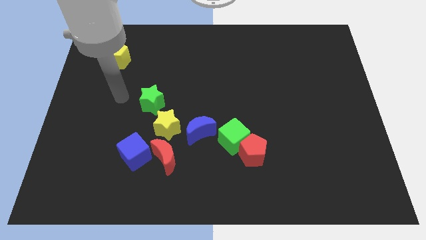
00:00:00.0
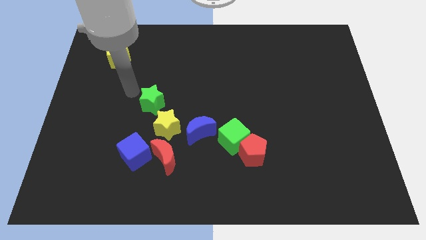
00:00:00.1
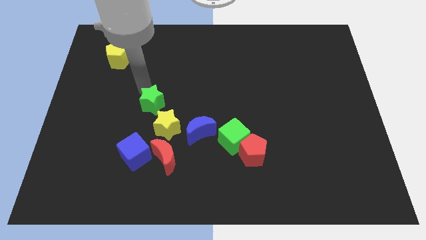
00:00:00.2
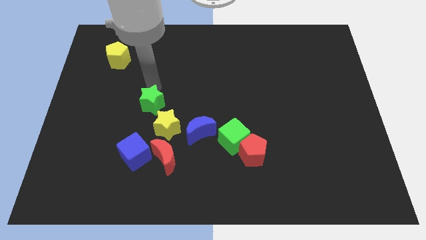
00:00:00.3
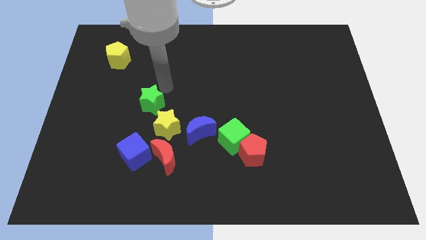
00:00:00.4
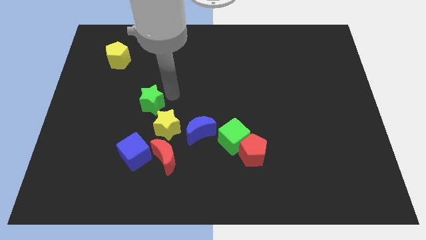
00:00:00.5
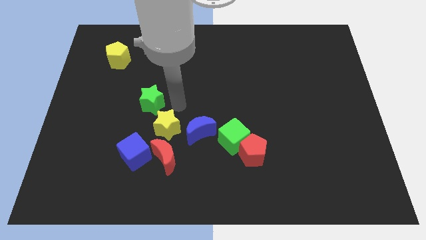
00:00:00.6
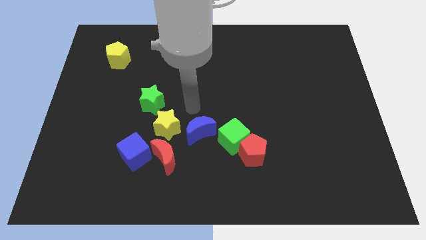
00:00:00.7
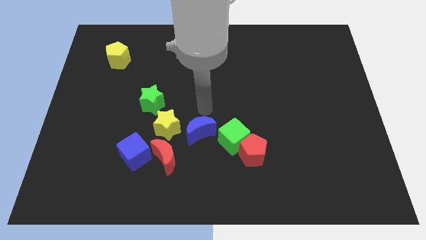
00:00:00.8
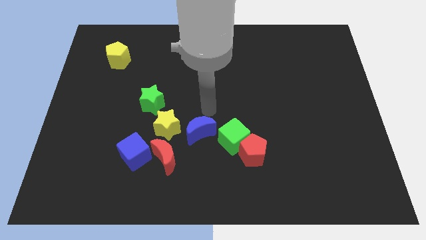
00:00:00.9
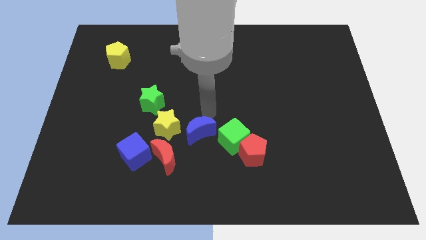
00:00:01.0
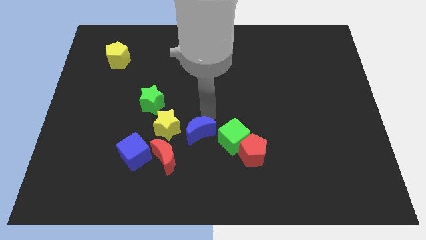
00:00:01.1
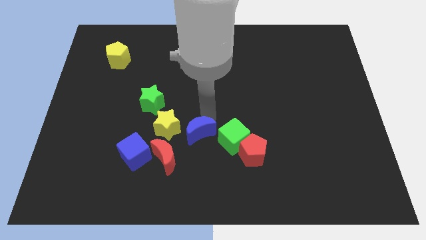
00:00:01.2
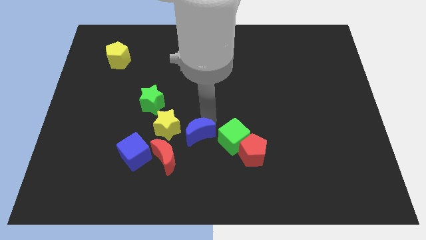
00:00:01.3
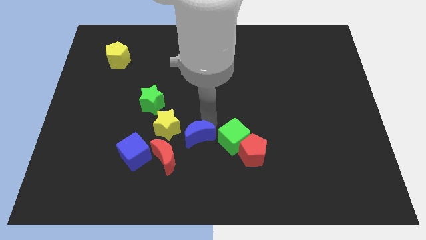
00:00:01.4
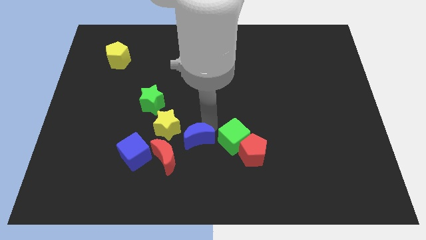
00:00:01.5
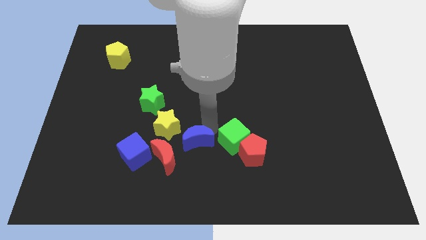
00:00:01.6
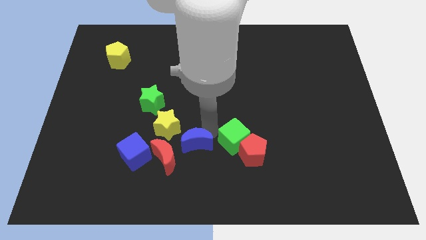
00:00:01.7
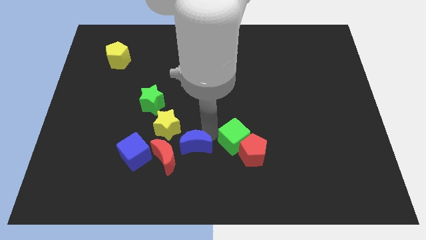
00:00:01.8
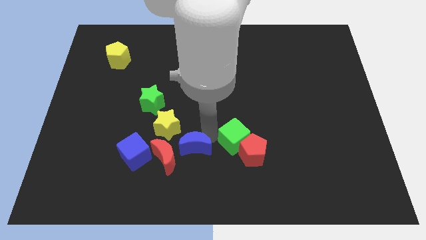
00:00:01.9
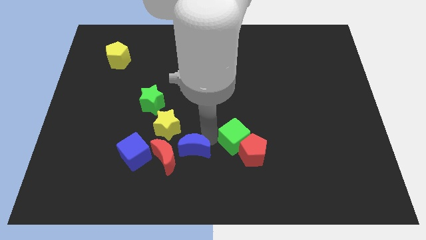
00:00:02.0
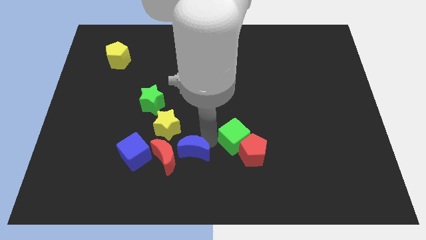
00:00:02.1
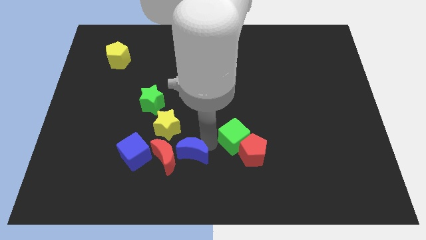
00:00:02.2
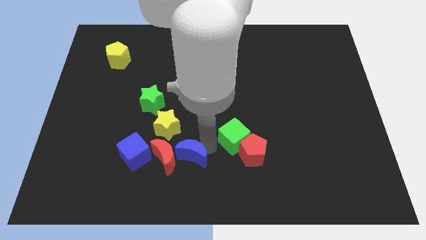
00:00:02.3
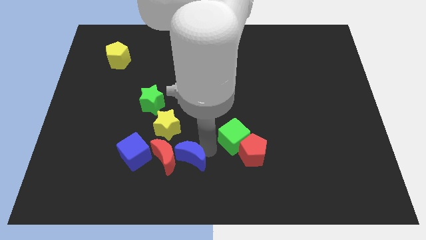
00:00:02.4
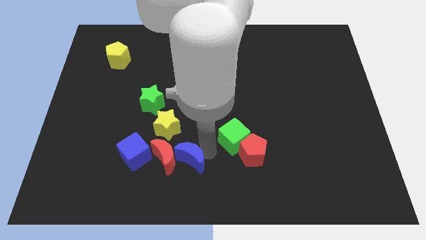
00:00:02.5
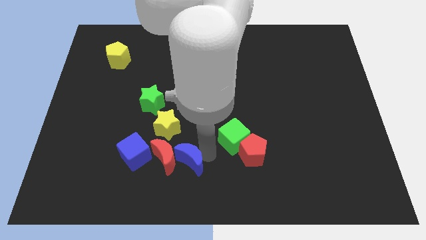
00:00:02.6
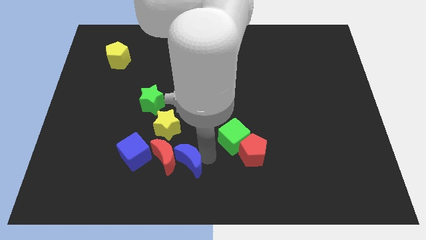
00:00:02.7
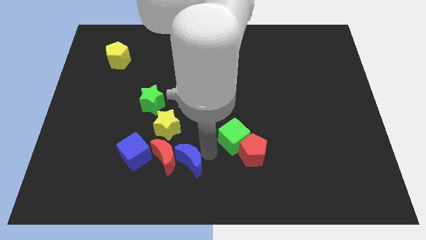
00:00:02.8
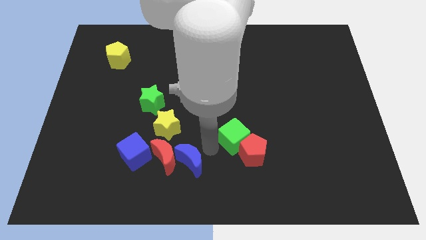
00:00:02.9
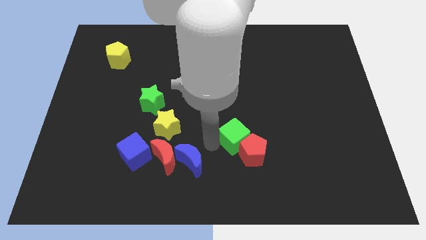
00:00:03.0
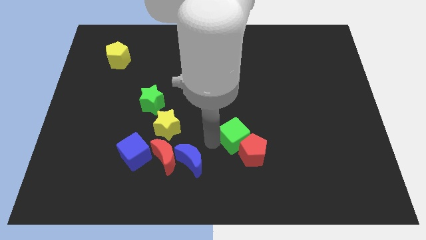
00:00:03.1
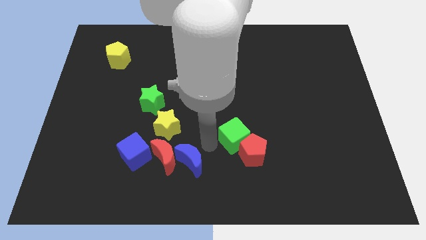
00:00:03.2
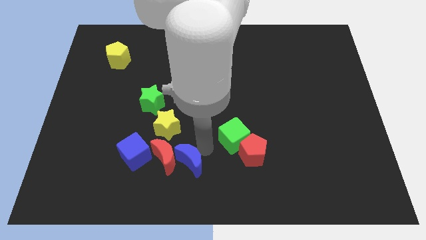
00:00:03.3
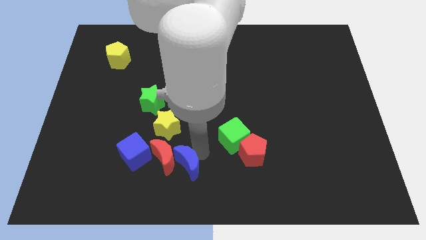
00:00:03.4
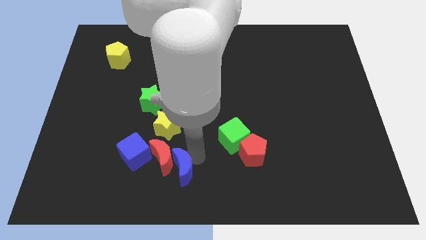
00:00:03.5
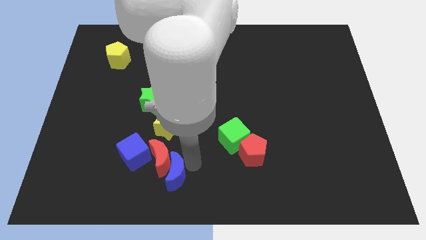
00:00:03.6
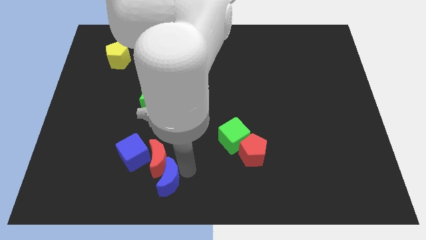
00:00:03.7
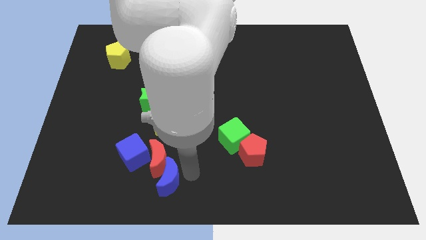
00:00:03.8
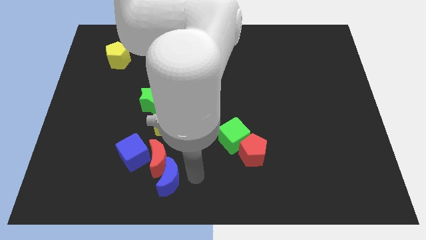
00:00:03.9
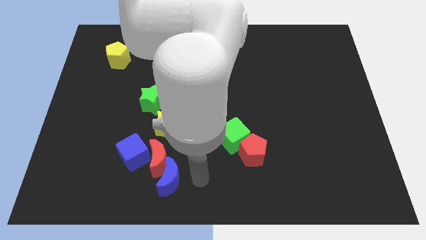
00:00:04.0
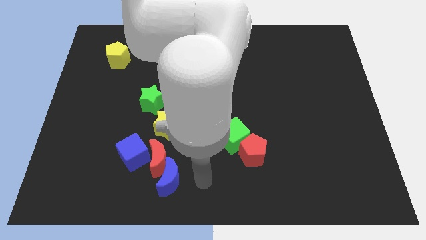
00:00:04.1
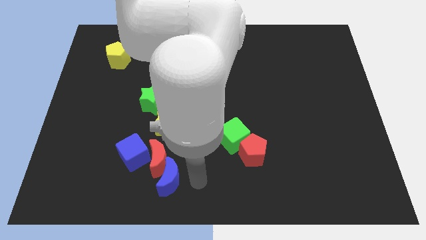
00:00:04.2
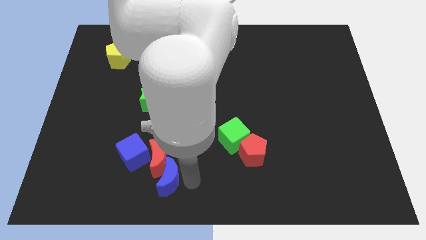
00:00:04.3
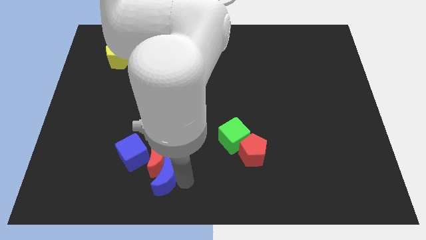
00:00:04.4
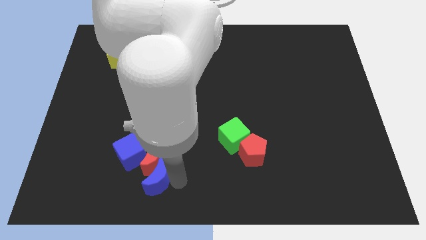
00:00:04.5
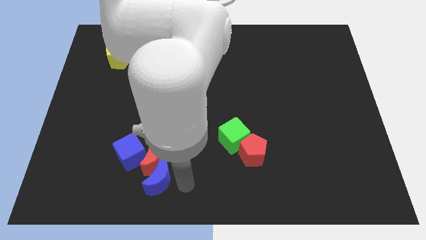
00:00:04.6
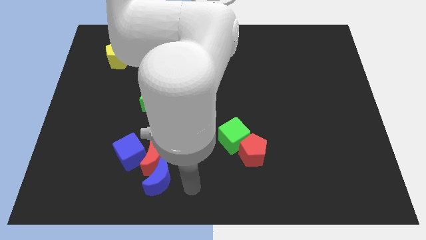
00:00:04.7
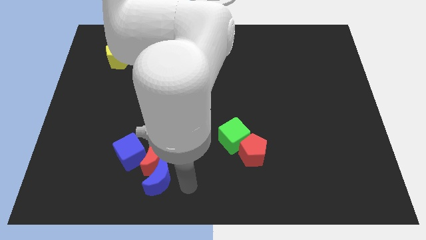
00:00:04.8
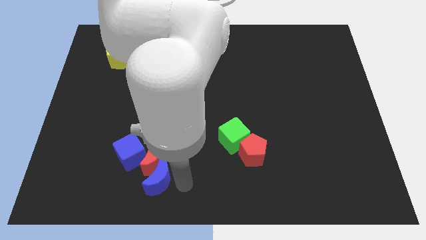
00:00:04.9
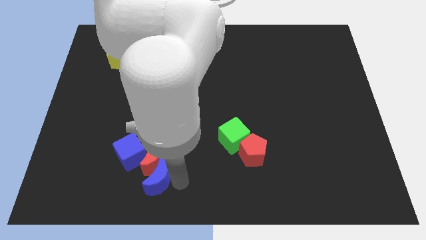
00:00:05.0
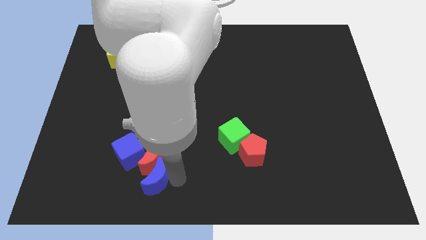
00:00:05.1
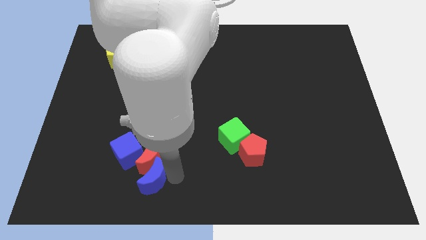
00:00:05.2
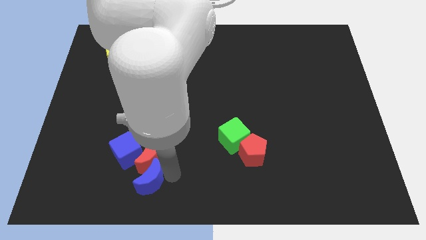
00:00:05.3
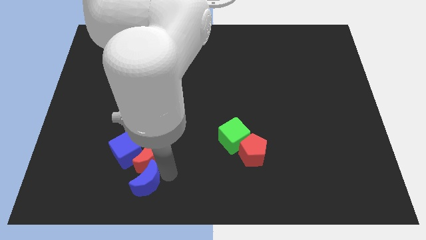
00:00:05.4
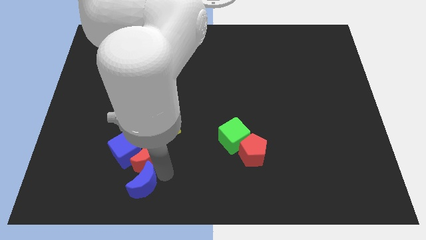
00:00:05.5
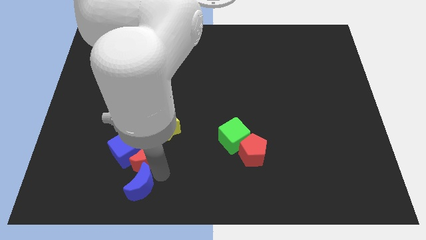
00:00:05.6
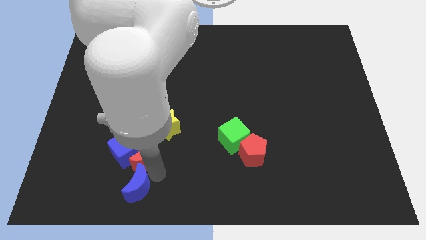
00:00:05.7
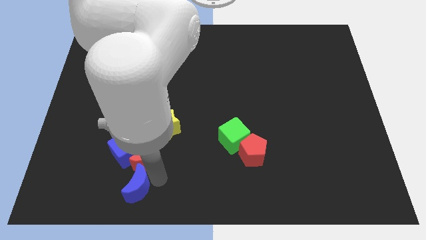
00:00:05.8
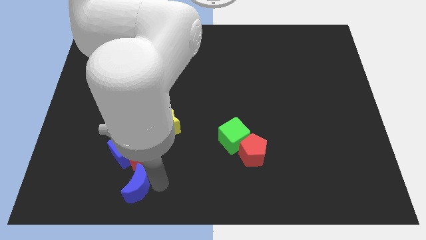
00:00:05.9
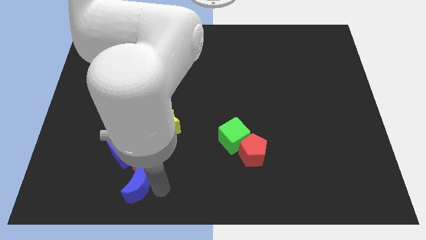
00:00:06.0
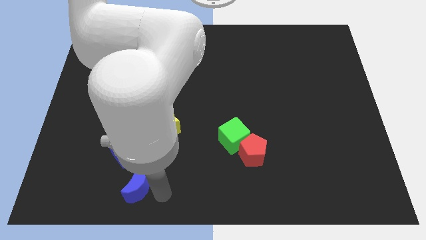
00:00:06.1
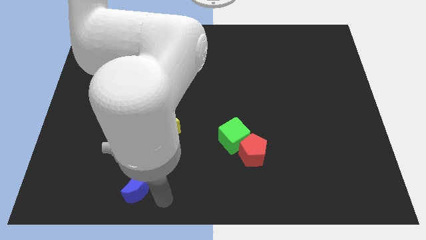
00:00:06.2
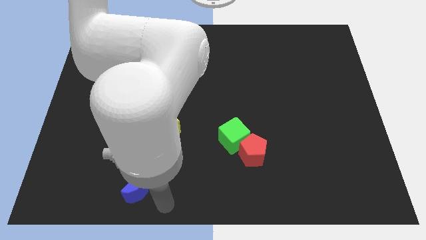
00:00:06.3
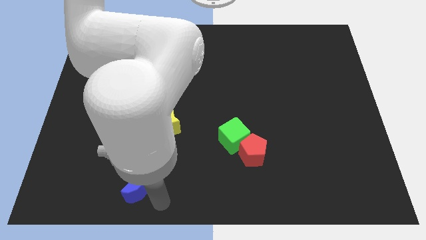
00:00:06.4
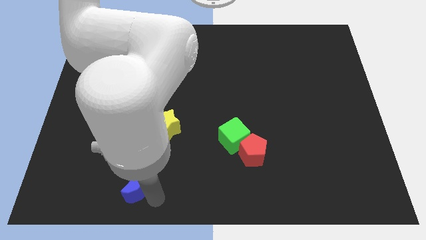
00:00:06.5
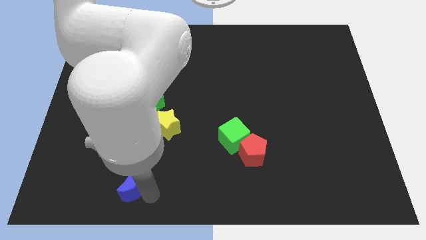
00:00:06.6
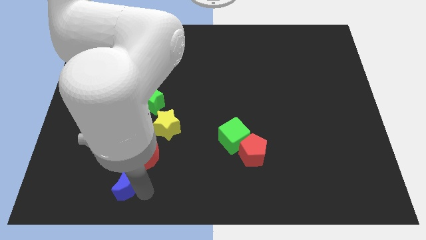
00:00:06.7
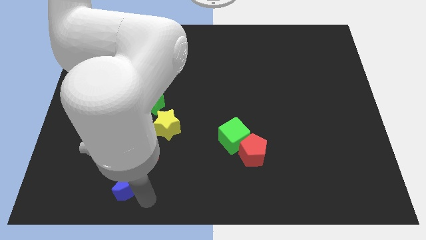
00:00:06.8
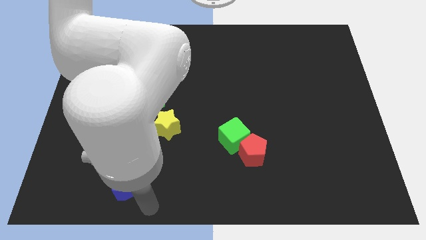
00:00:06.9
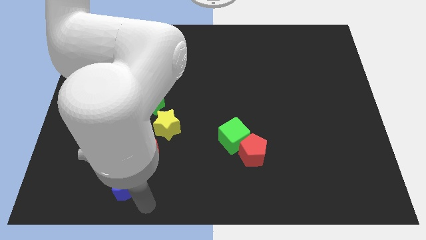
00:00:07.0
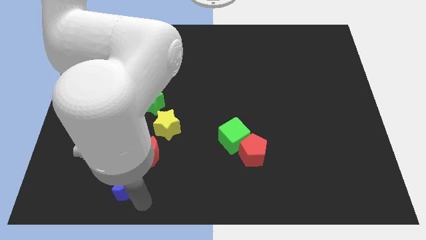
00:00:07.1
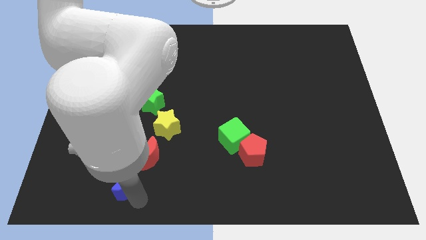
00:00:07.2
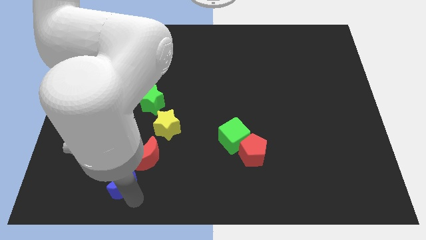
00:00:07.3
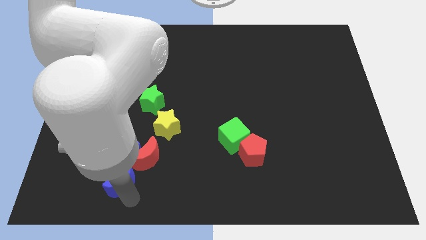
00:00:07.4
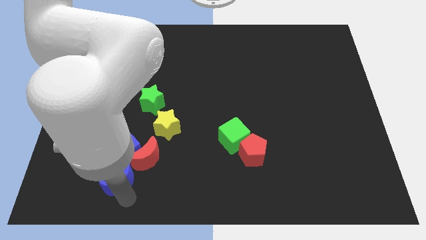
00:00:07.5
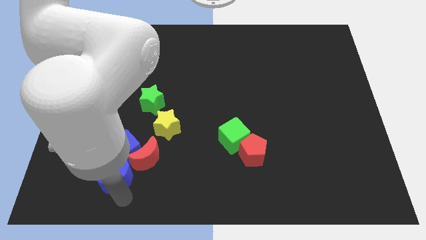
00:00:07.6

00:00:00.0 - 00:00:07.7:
slide the blue moon to the left a little

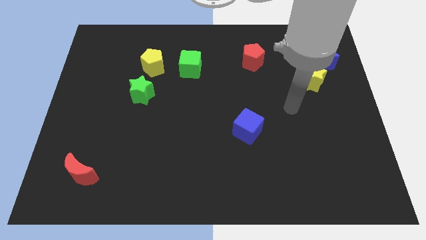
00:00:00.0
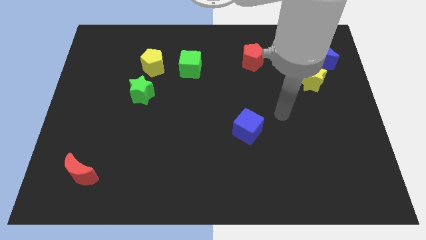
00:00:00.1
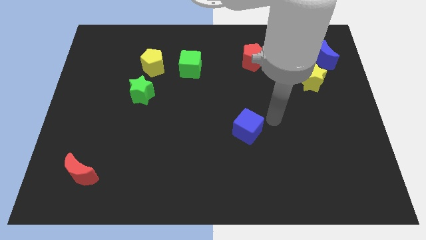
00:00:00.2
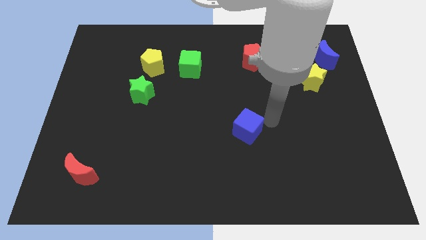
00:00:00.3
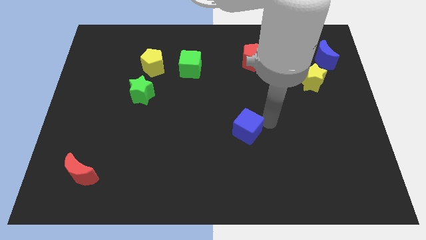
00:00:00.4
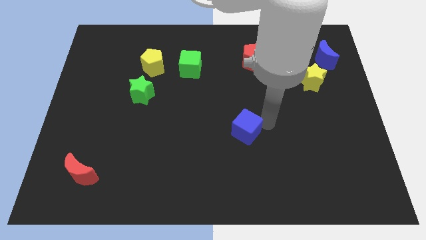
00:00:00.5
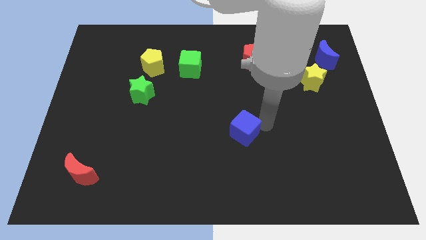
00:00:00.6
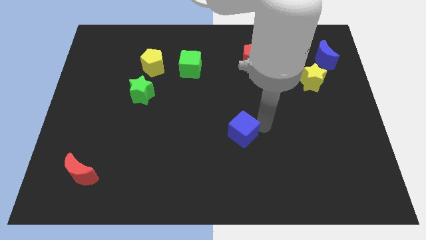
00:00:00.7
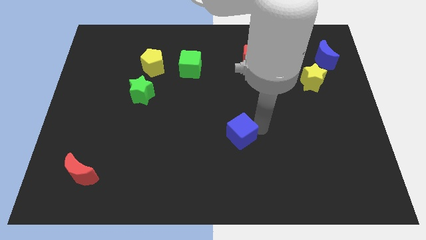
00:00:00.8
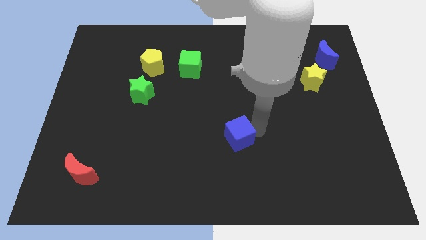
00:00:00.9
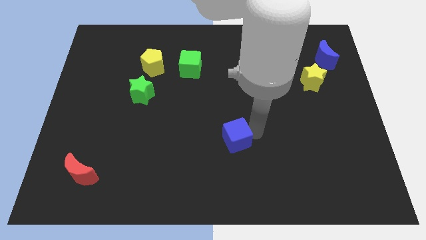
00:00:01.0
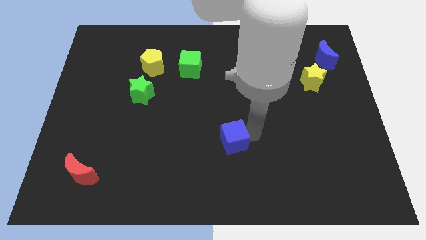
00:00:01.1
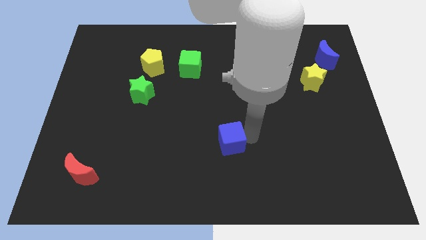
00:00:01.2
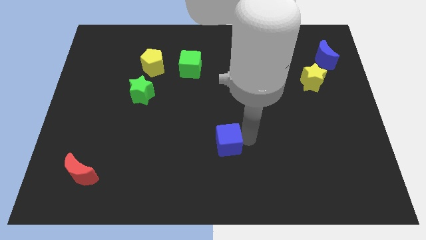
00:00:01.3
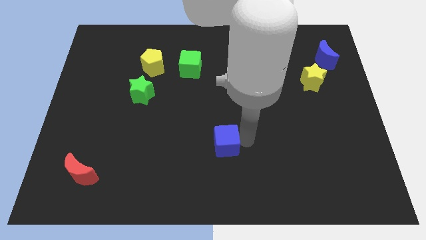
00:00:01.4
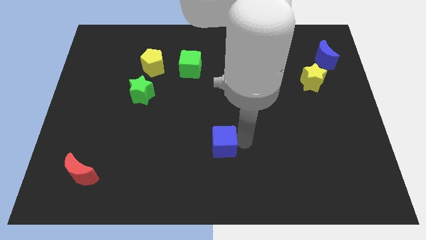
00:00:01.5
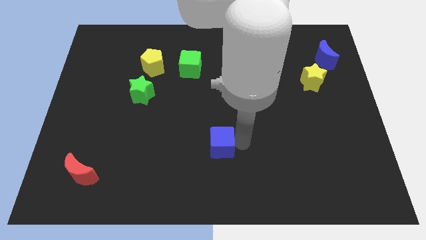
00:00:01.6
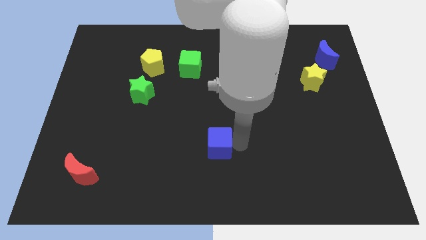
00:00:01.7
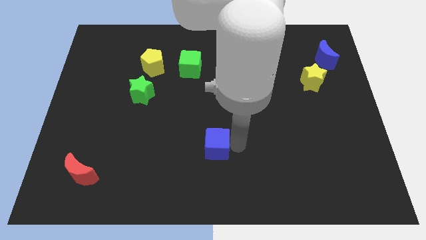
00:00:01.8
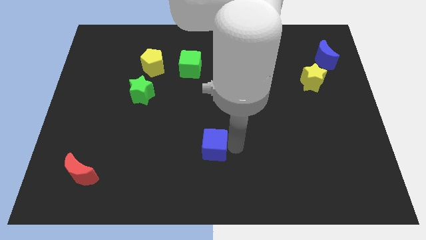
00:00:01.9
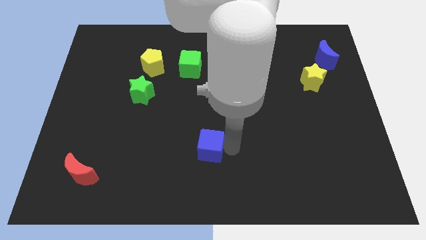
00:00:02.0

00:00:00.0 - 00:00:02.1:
slightly push the blue cube left
